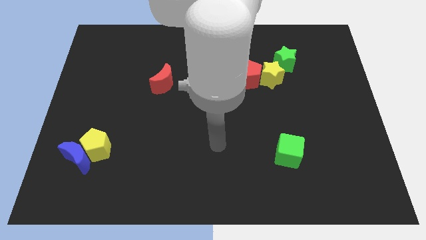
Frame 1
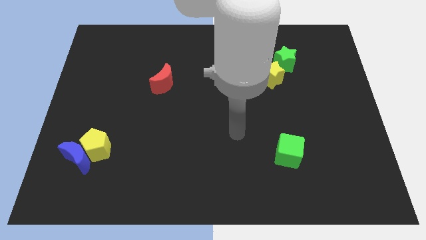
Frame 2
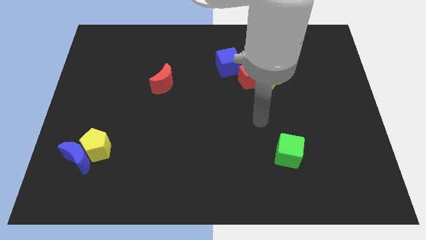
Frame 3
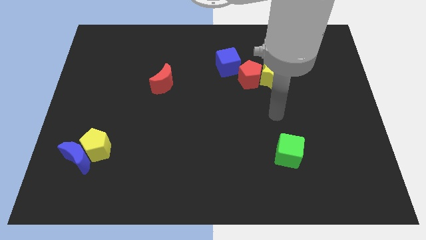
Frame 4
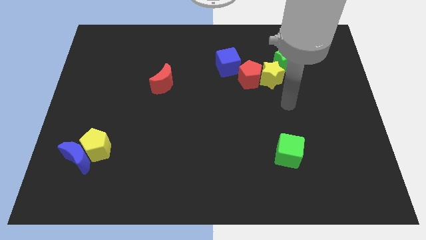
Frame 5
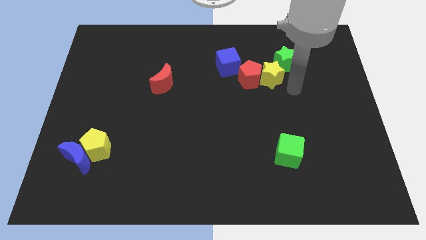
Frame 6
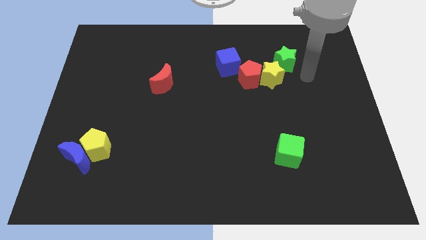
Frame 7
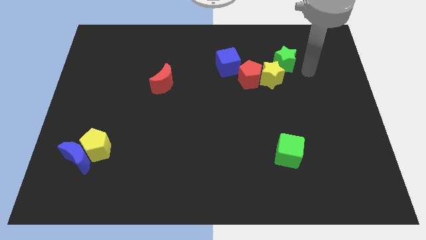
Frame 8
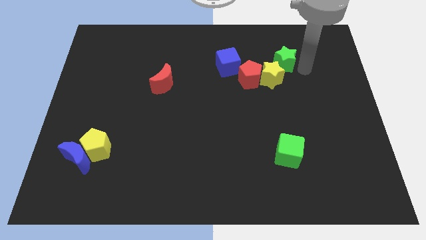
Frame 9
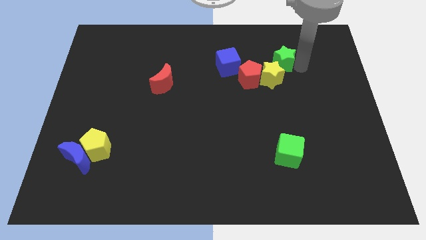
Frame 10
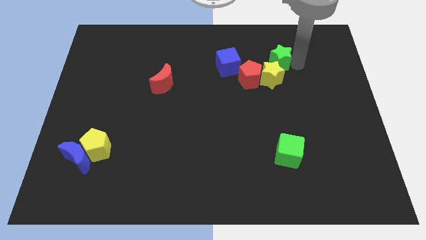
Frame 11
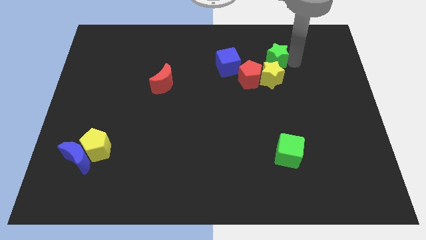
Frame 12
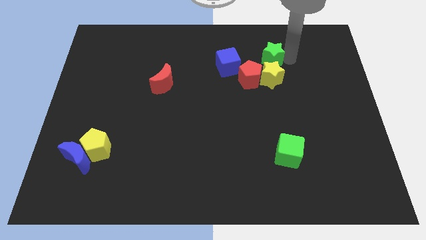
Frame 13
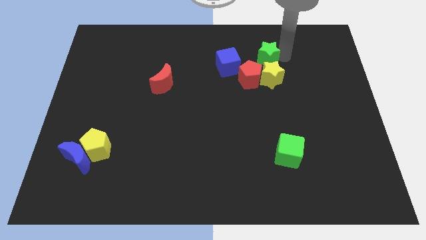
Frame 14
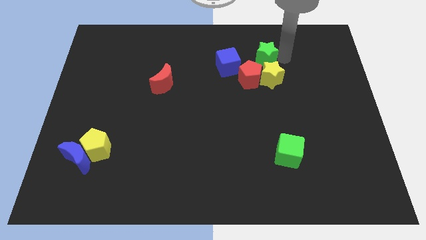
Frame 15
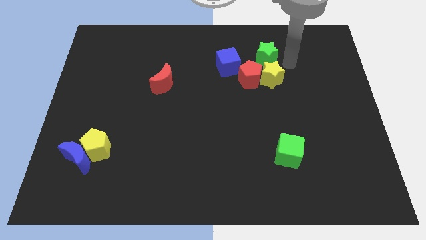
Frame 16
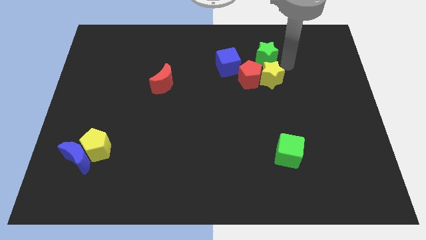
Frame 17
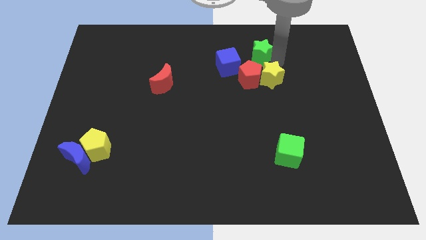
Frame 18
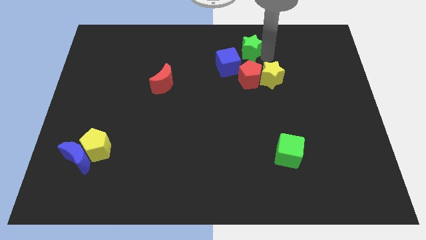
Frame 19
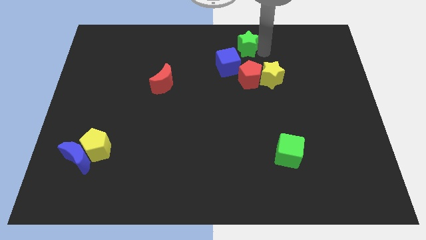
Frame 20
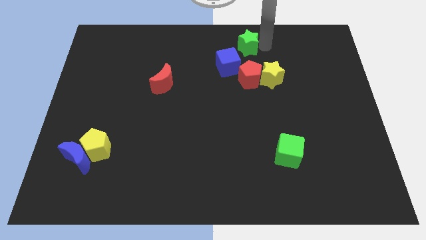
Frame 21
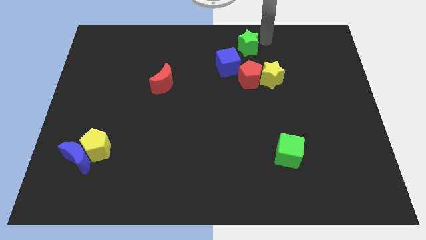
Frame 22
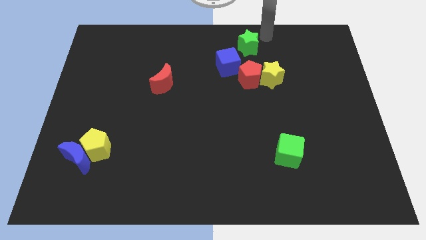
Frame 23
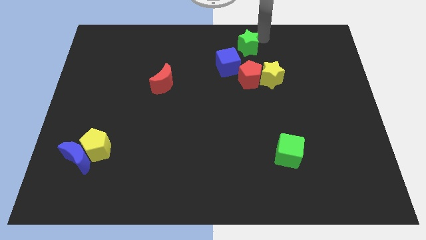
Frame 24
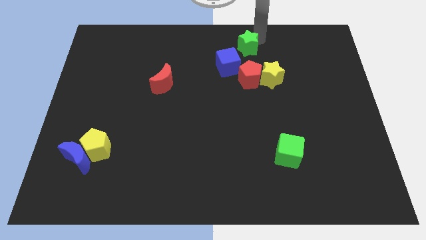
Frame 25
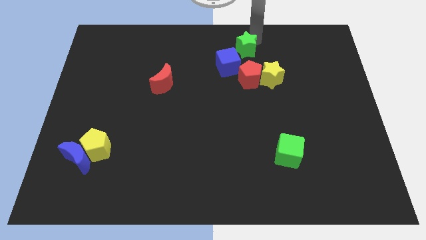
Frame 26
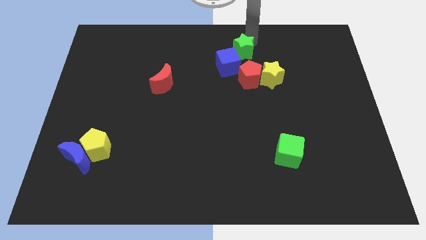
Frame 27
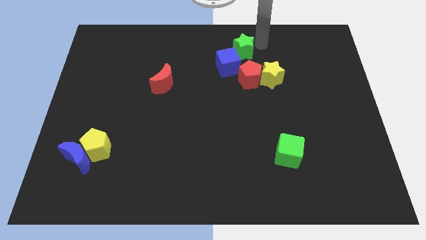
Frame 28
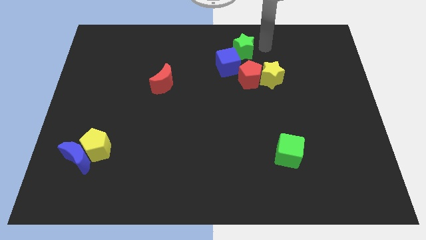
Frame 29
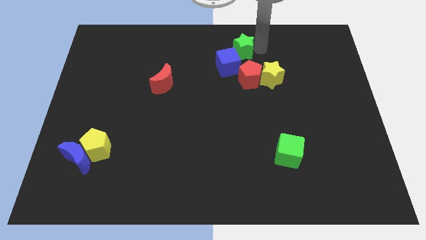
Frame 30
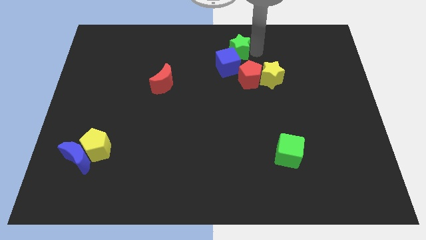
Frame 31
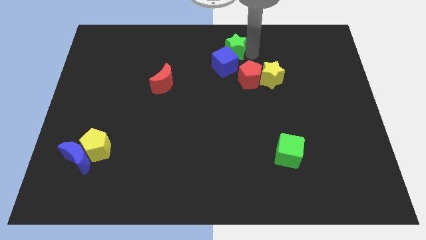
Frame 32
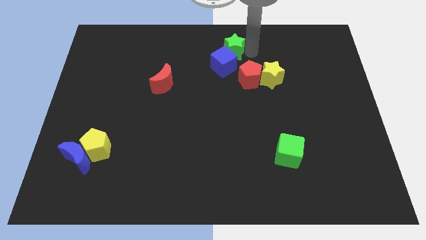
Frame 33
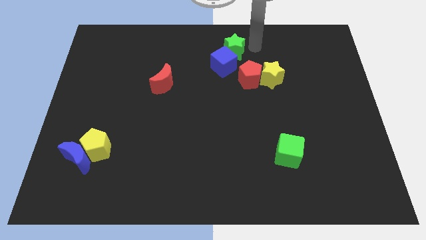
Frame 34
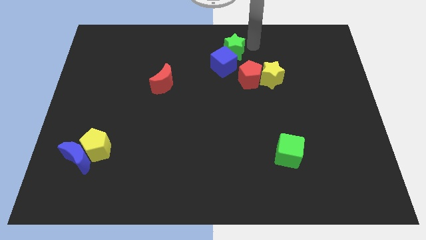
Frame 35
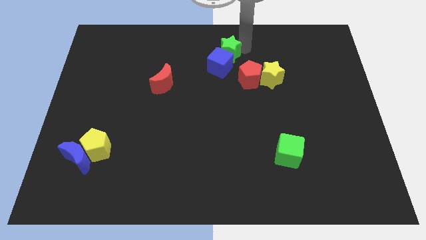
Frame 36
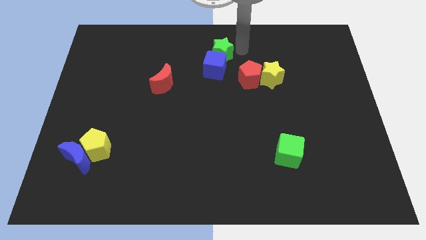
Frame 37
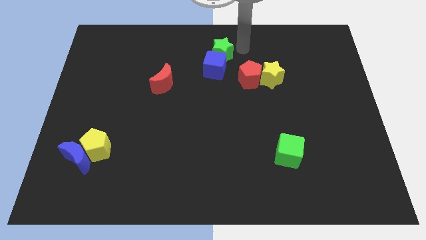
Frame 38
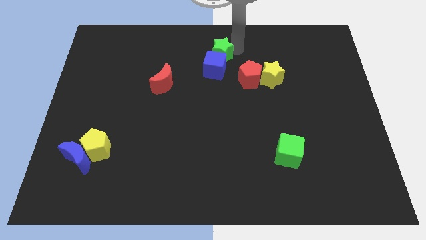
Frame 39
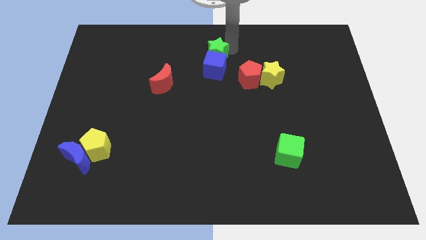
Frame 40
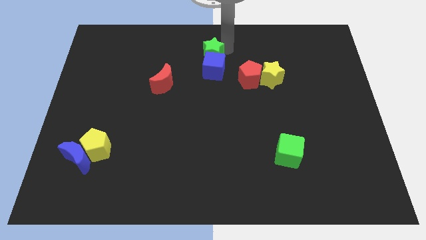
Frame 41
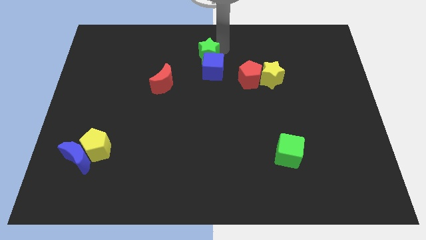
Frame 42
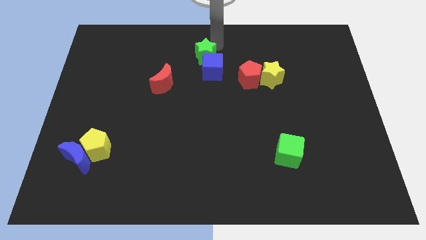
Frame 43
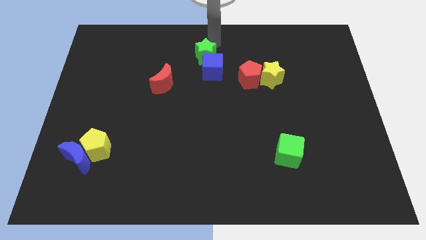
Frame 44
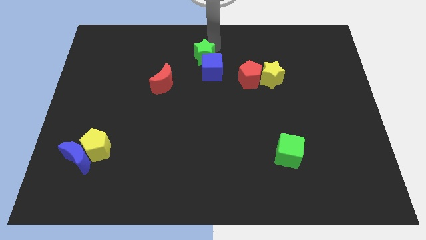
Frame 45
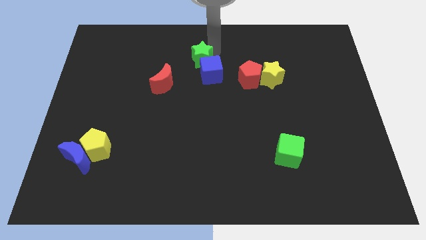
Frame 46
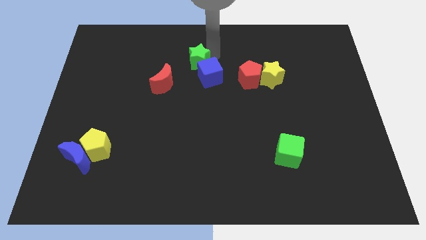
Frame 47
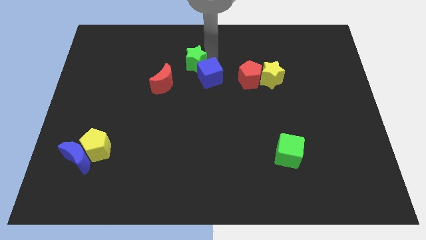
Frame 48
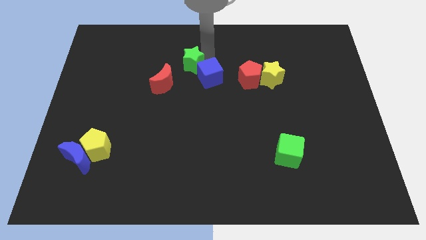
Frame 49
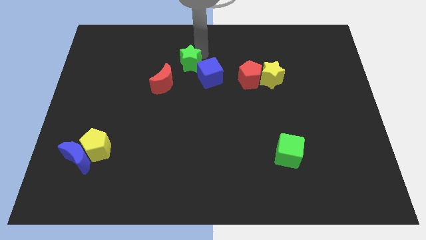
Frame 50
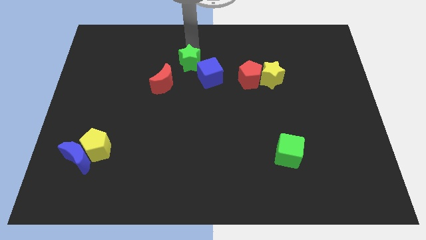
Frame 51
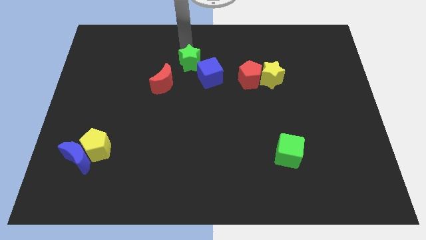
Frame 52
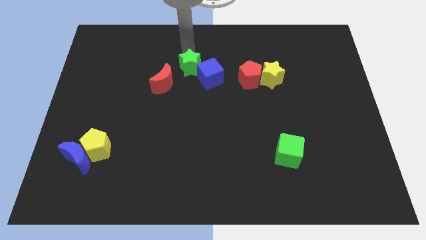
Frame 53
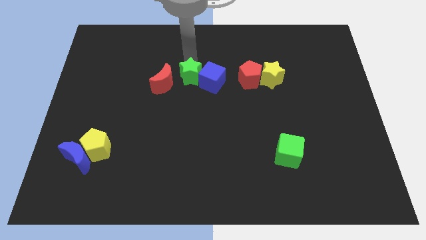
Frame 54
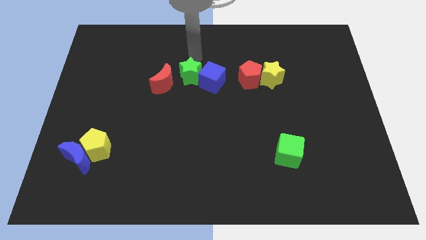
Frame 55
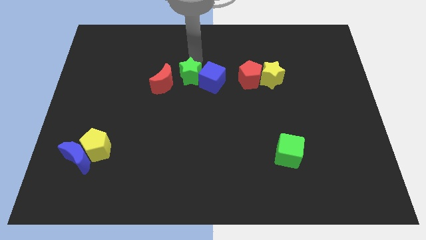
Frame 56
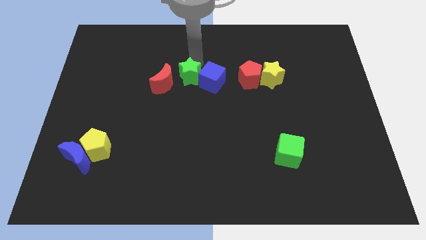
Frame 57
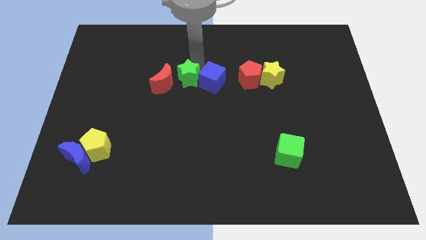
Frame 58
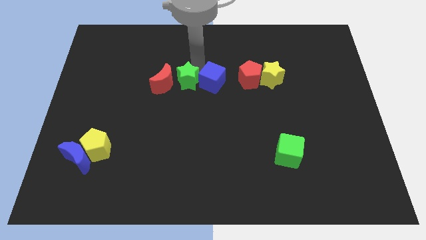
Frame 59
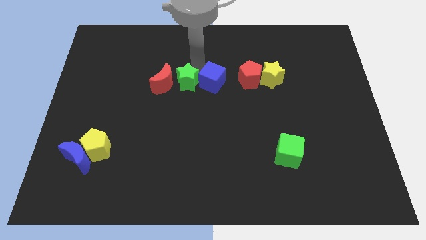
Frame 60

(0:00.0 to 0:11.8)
put the green star to the bottom right side of the red moon

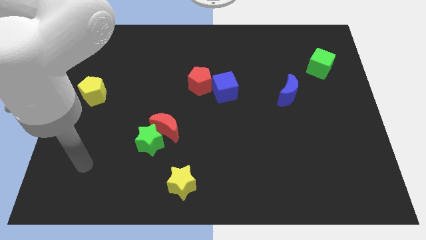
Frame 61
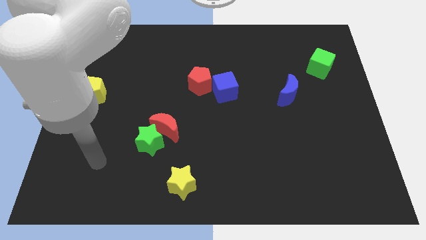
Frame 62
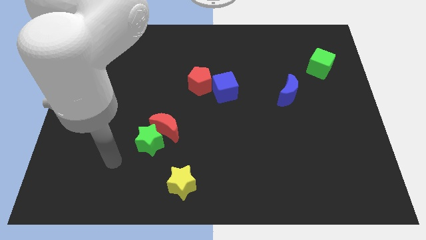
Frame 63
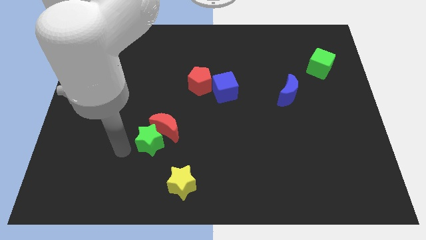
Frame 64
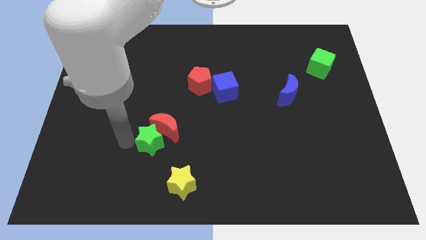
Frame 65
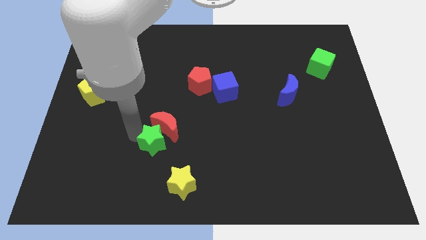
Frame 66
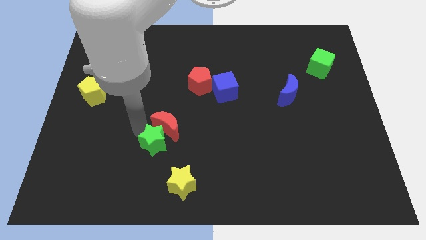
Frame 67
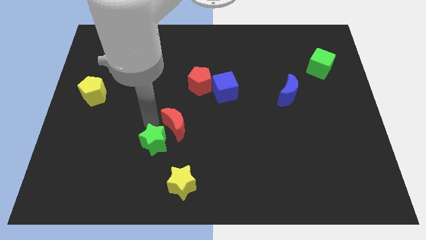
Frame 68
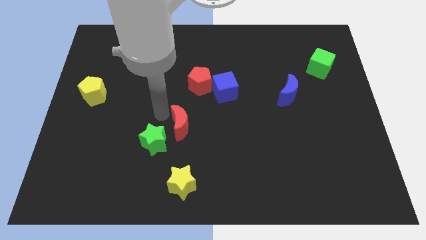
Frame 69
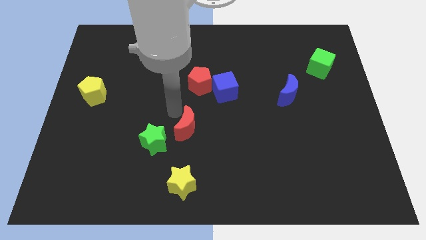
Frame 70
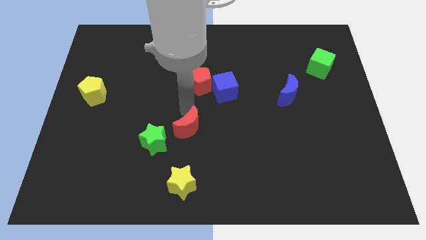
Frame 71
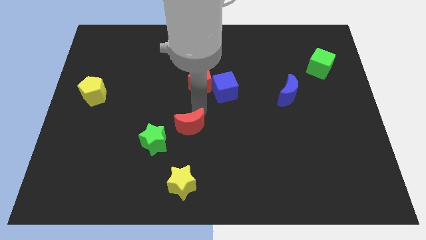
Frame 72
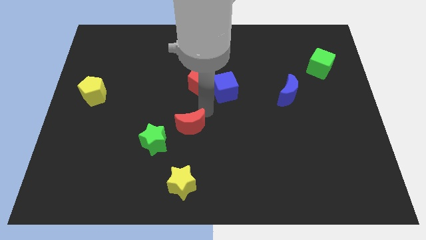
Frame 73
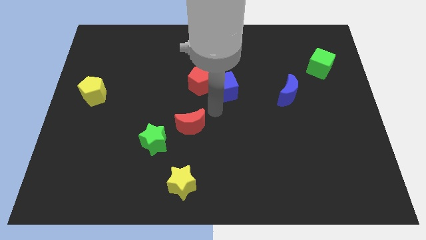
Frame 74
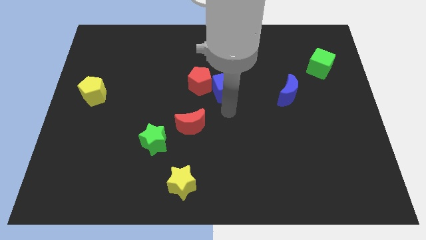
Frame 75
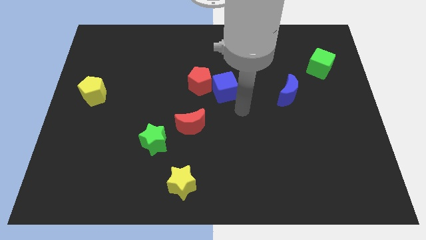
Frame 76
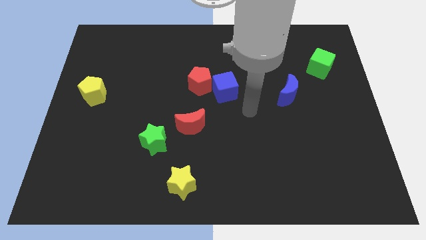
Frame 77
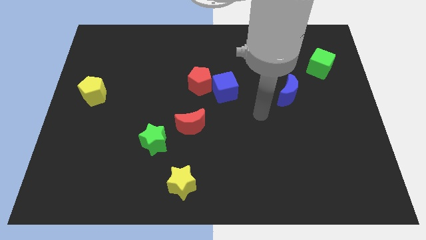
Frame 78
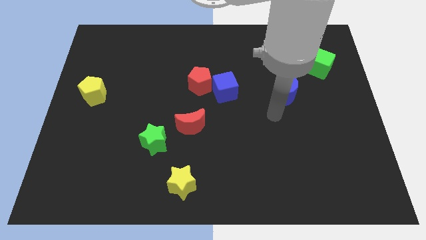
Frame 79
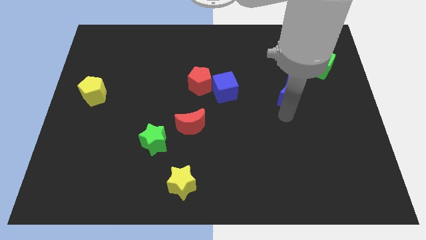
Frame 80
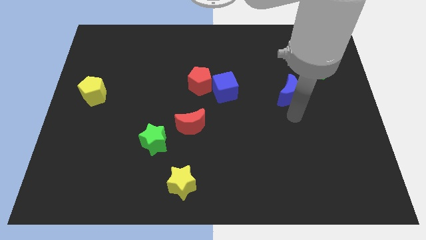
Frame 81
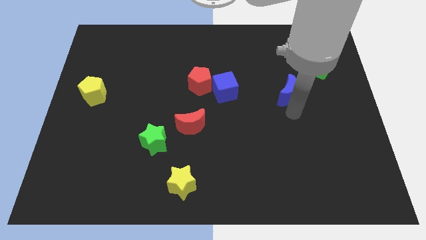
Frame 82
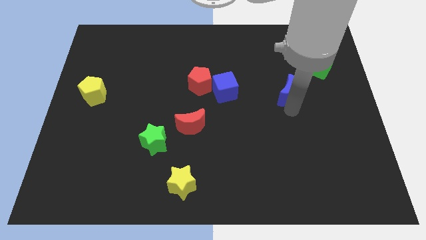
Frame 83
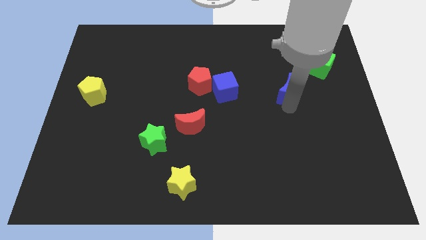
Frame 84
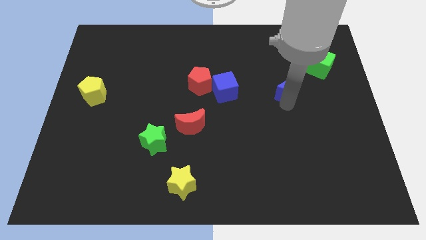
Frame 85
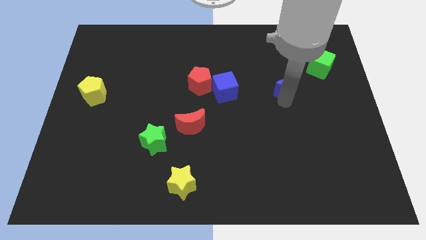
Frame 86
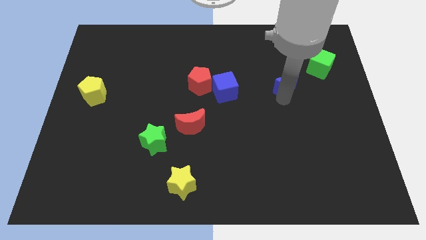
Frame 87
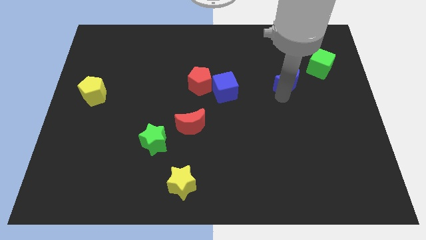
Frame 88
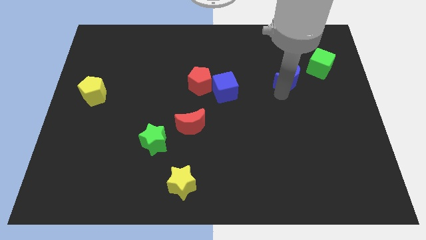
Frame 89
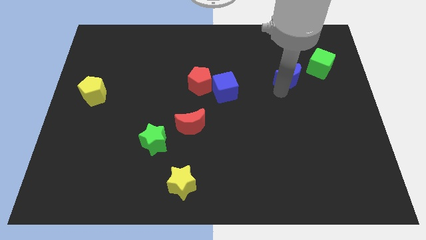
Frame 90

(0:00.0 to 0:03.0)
put the blue moon just left of the green cube
